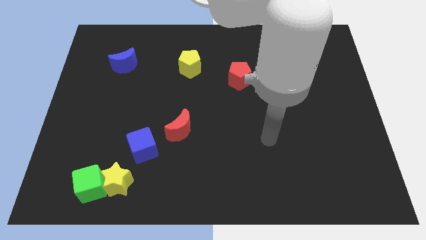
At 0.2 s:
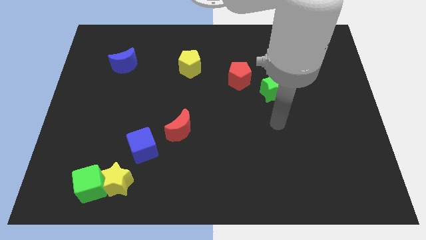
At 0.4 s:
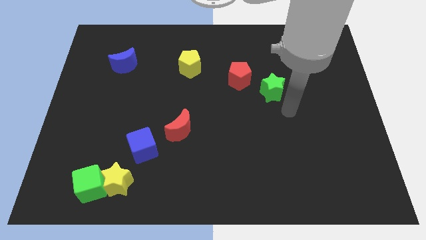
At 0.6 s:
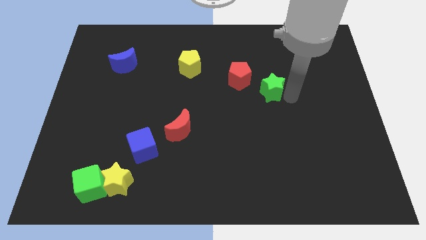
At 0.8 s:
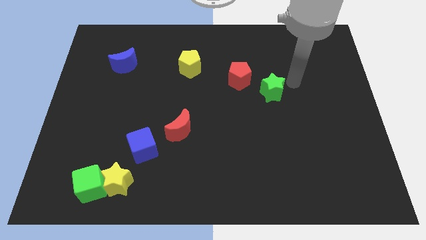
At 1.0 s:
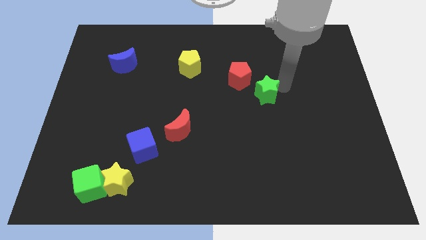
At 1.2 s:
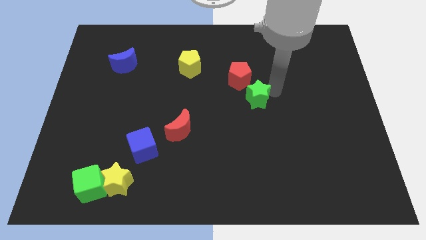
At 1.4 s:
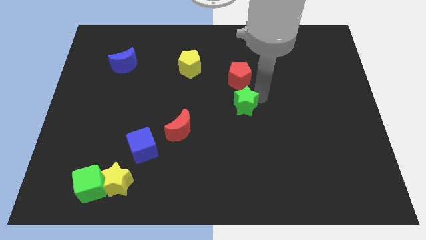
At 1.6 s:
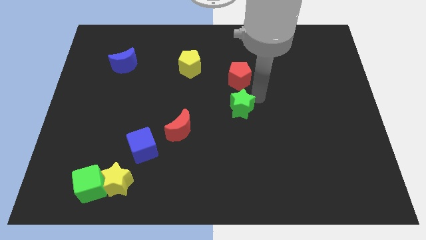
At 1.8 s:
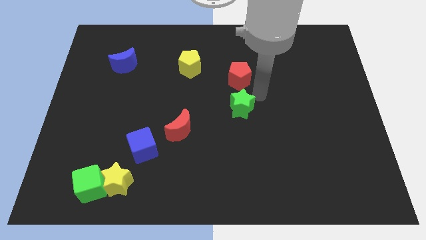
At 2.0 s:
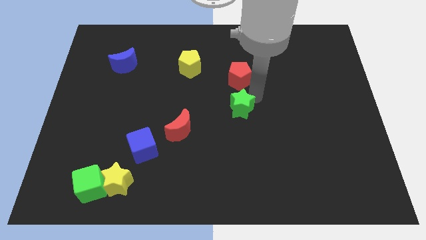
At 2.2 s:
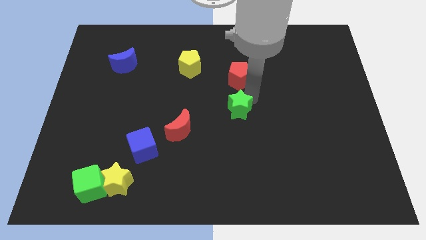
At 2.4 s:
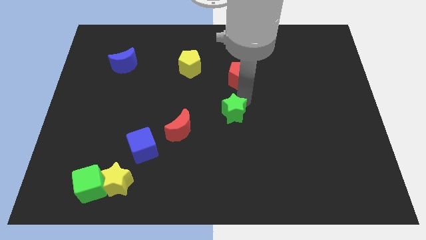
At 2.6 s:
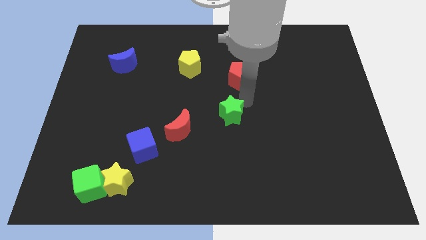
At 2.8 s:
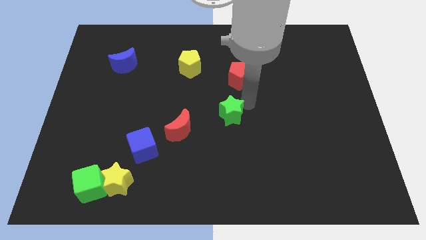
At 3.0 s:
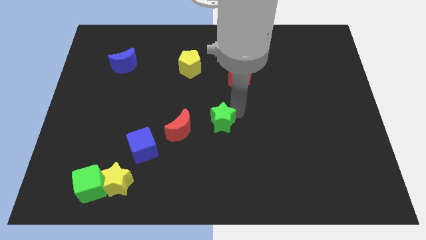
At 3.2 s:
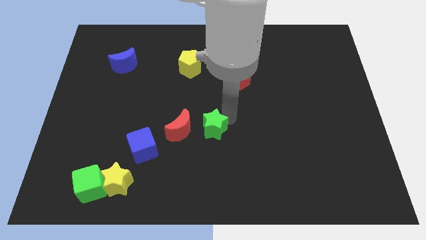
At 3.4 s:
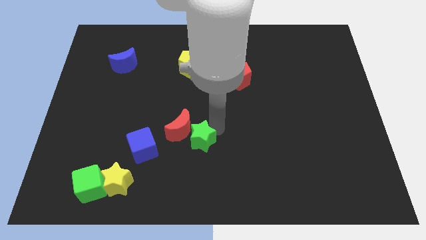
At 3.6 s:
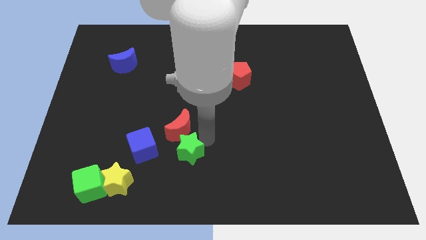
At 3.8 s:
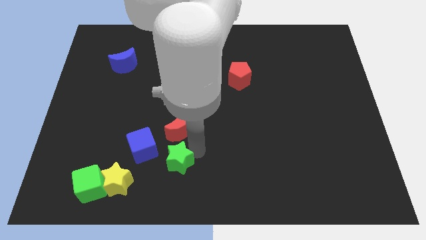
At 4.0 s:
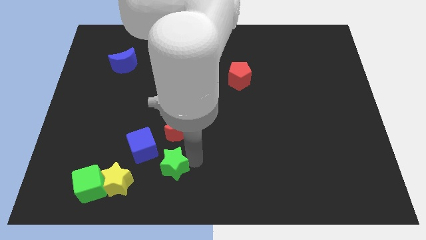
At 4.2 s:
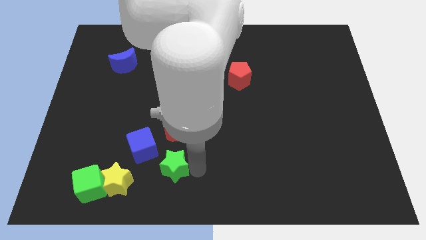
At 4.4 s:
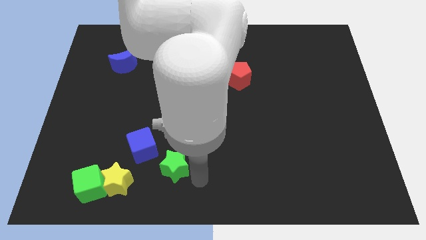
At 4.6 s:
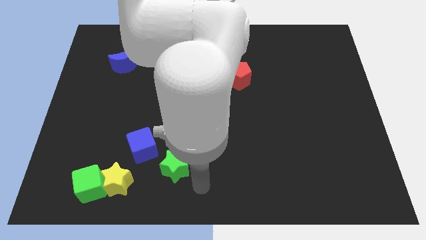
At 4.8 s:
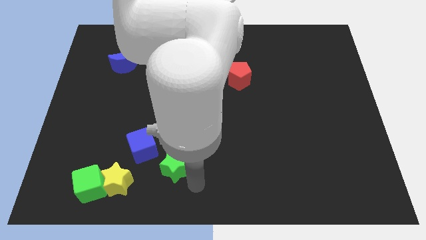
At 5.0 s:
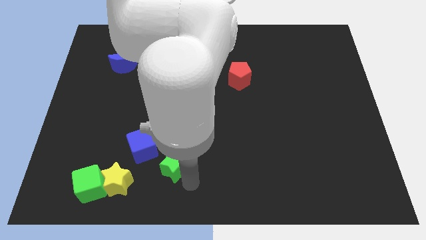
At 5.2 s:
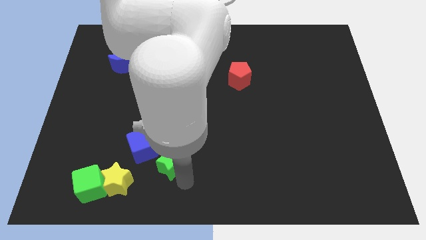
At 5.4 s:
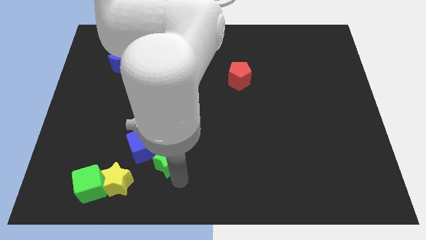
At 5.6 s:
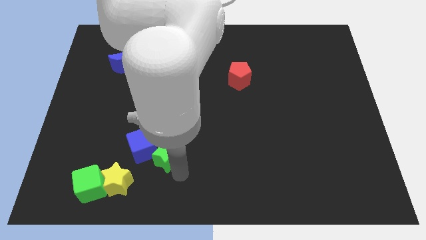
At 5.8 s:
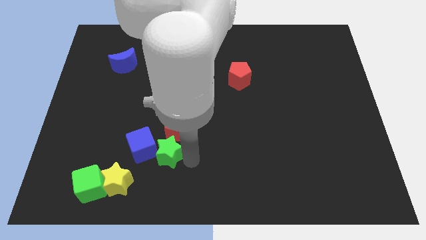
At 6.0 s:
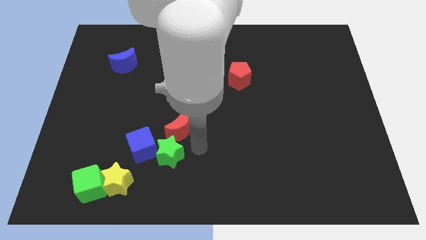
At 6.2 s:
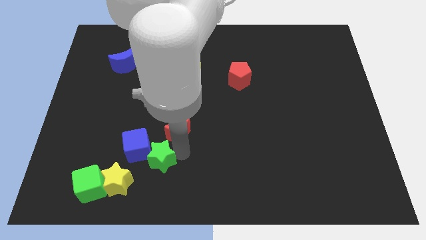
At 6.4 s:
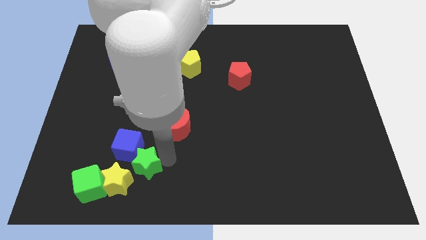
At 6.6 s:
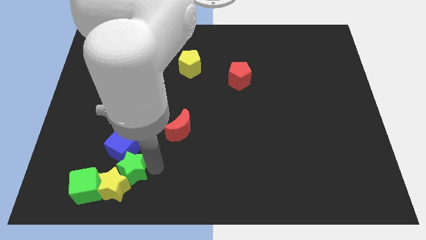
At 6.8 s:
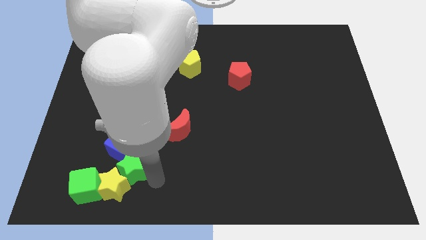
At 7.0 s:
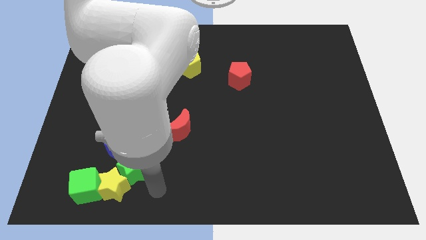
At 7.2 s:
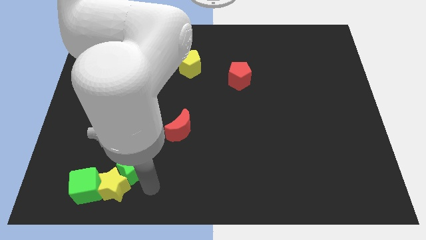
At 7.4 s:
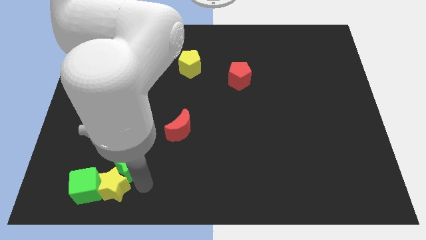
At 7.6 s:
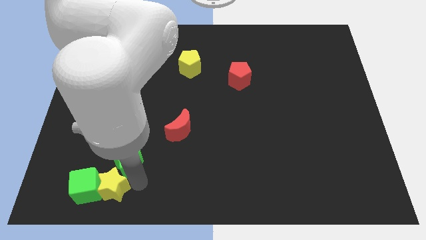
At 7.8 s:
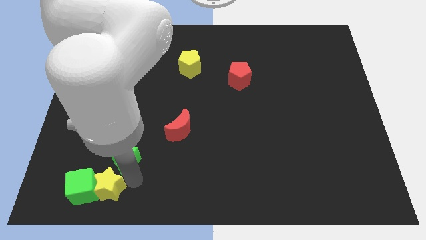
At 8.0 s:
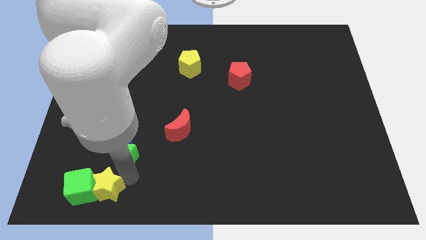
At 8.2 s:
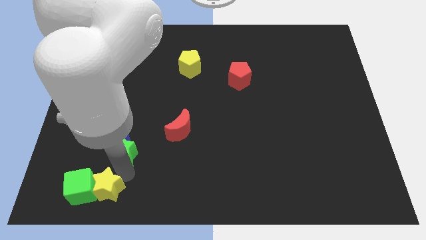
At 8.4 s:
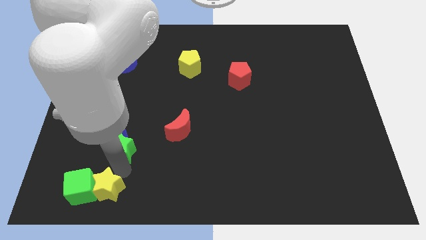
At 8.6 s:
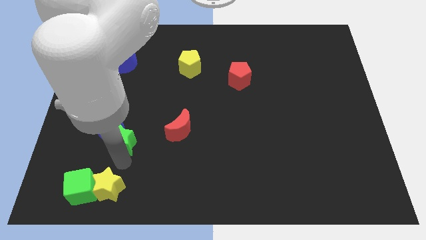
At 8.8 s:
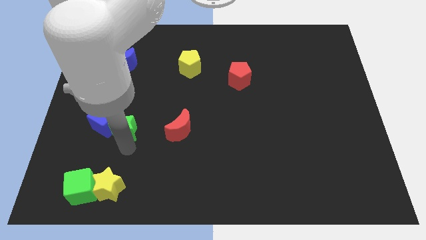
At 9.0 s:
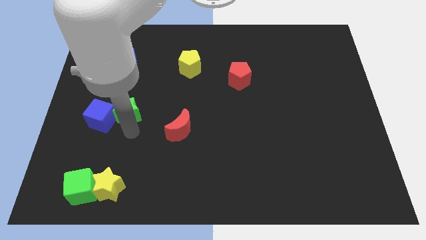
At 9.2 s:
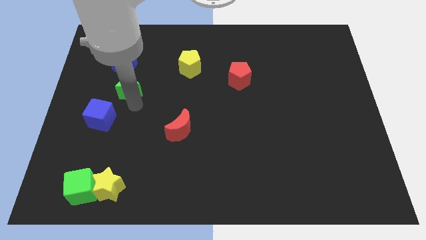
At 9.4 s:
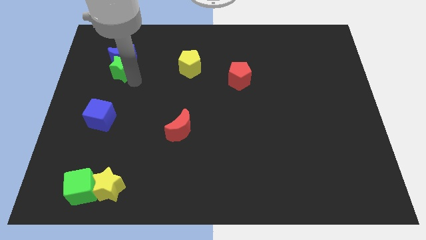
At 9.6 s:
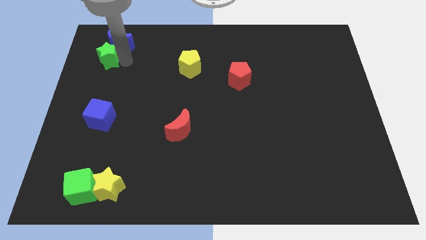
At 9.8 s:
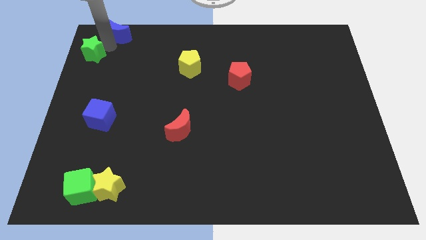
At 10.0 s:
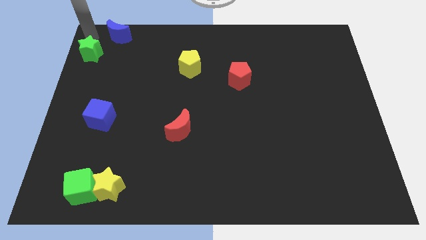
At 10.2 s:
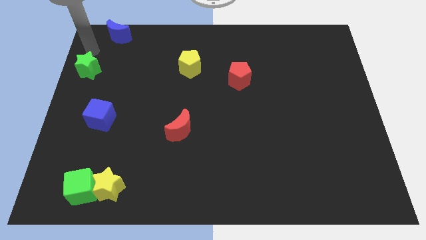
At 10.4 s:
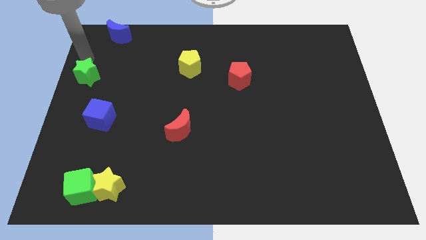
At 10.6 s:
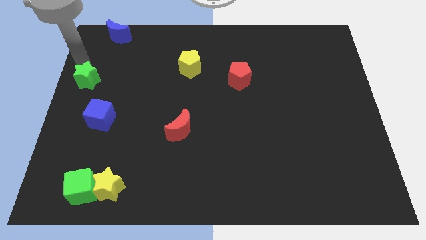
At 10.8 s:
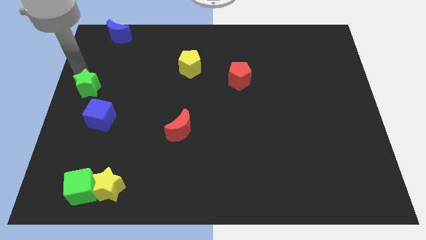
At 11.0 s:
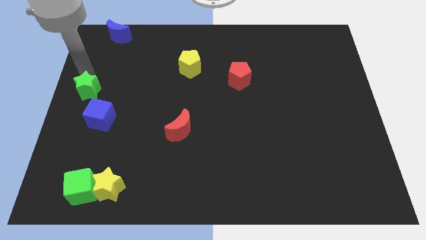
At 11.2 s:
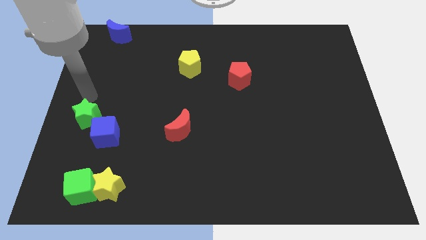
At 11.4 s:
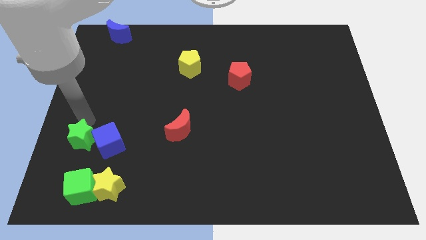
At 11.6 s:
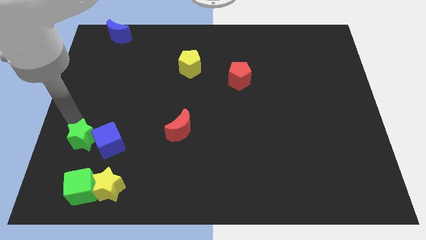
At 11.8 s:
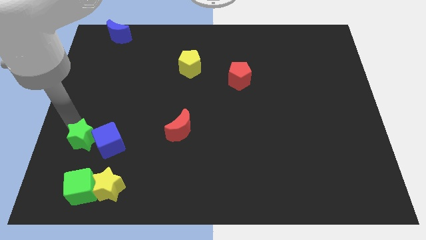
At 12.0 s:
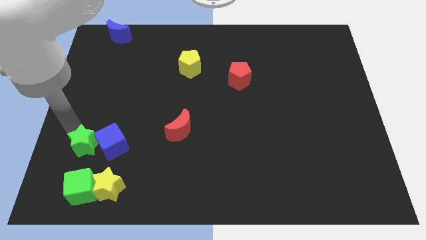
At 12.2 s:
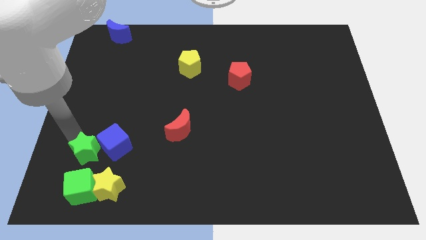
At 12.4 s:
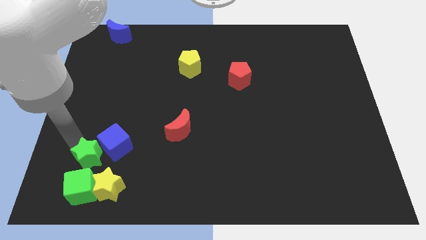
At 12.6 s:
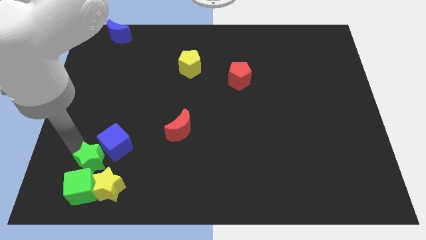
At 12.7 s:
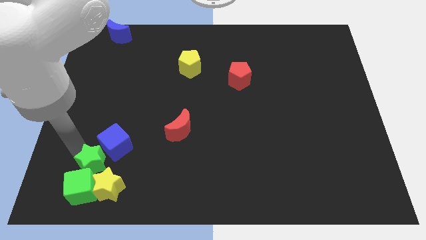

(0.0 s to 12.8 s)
push the green star to the green cube

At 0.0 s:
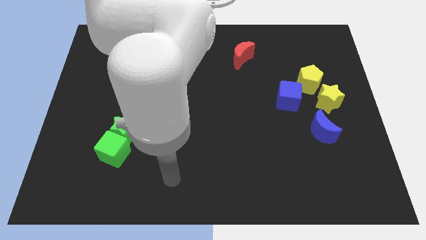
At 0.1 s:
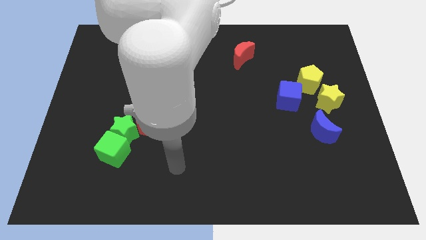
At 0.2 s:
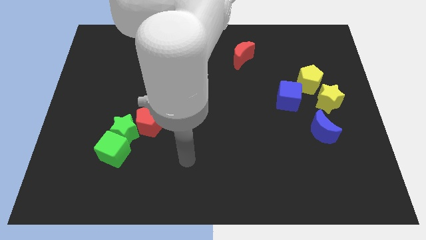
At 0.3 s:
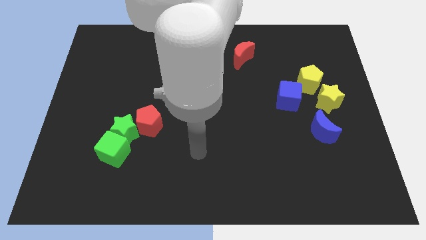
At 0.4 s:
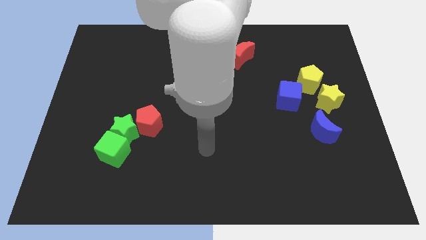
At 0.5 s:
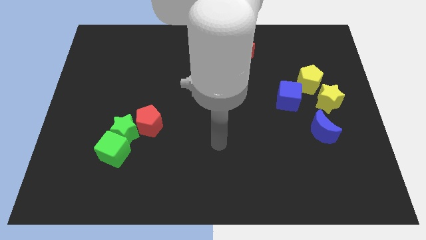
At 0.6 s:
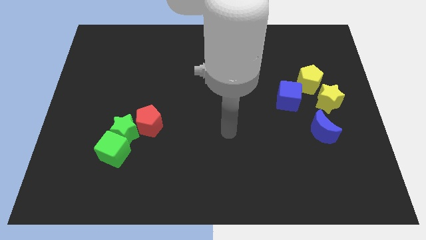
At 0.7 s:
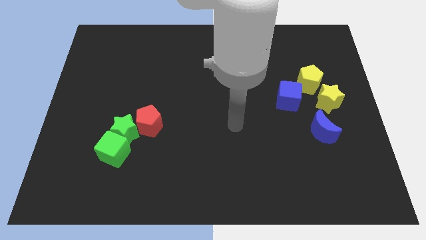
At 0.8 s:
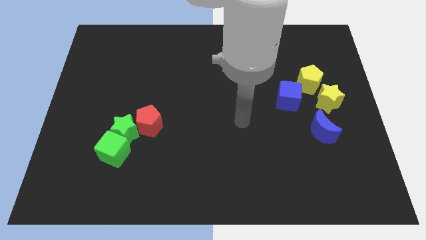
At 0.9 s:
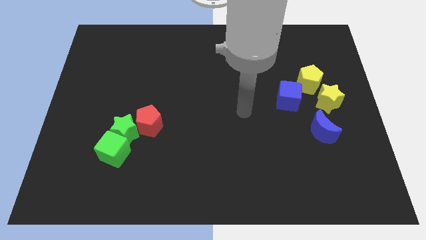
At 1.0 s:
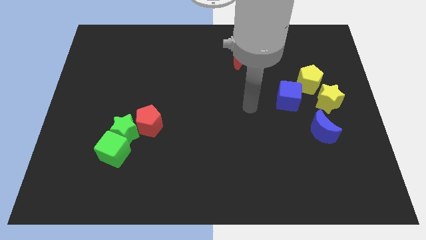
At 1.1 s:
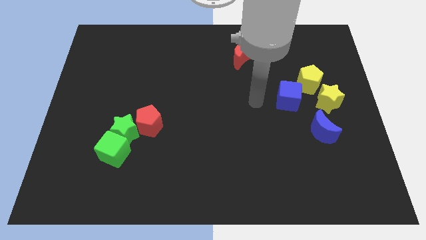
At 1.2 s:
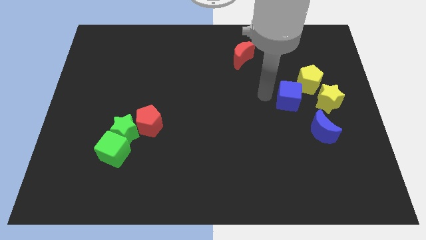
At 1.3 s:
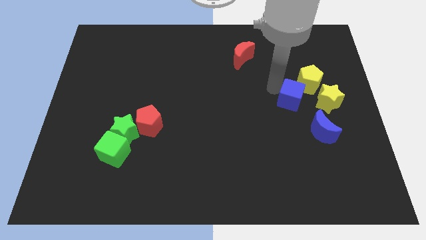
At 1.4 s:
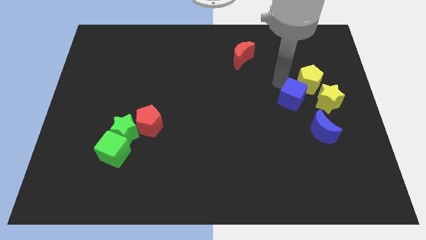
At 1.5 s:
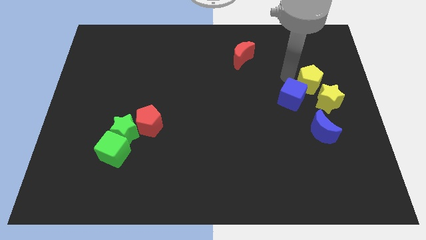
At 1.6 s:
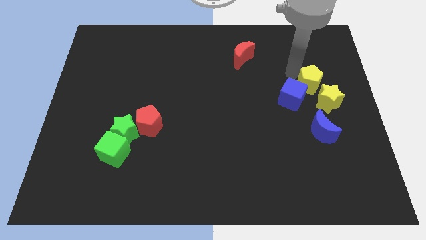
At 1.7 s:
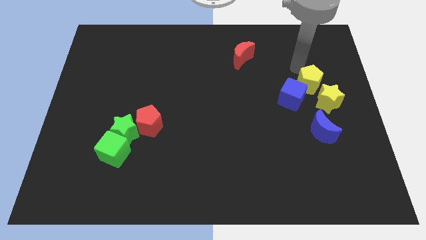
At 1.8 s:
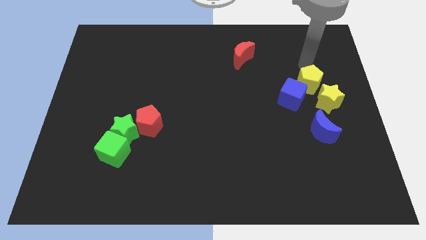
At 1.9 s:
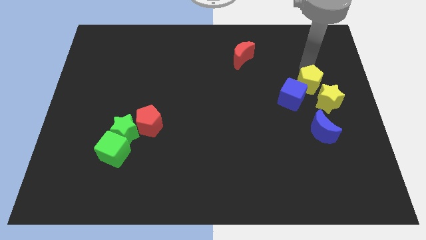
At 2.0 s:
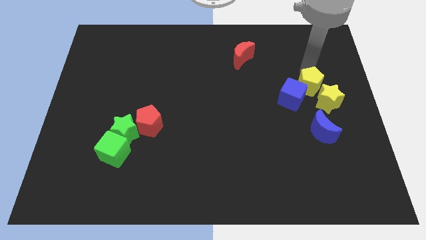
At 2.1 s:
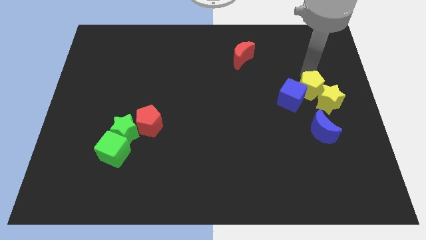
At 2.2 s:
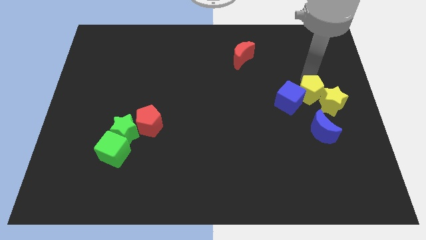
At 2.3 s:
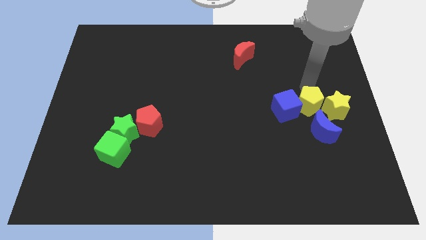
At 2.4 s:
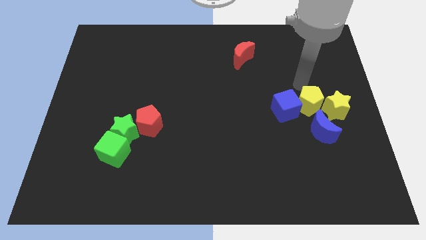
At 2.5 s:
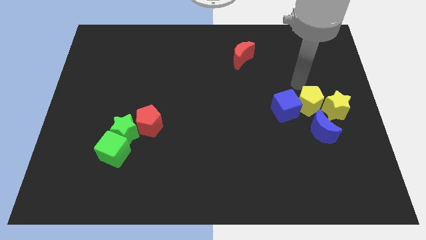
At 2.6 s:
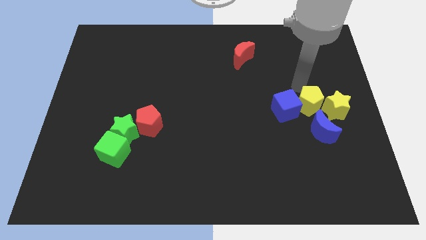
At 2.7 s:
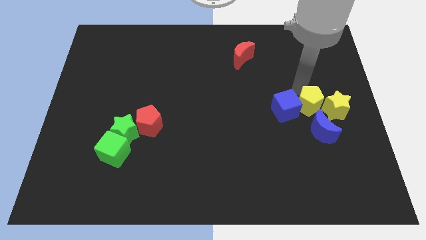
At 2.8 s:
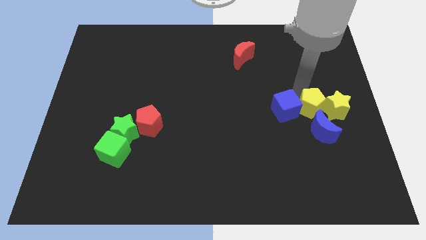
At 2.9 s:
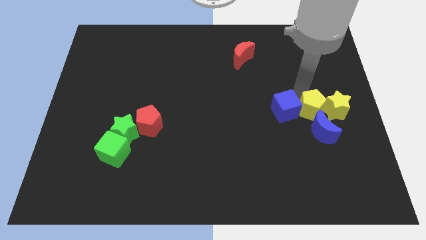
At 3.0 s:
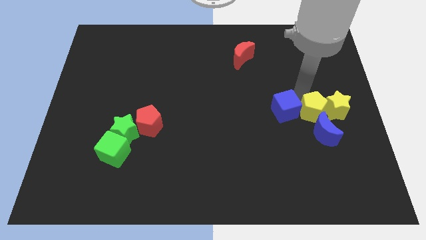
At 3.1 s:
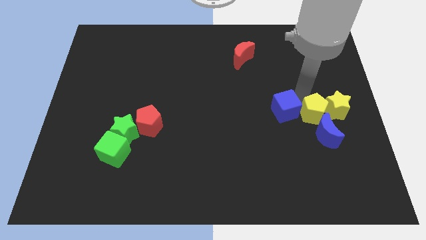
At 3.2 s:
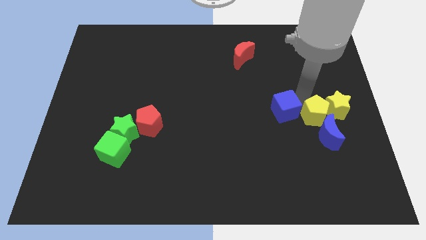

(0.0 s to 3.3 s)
move the yellow pentagon to the blue moon
